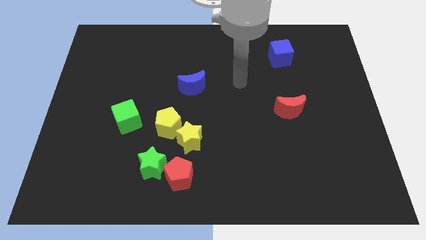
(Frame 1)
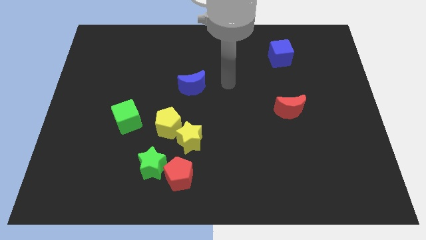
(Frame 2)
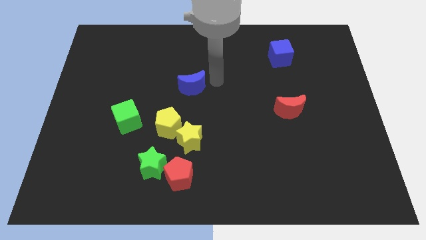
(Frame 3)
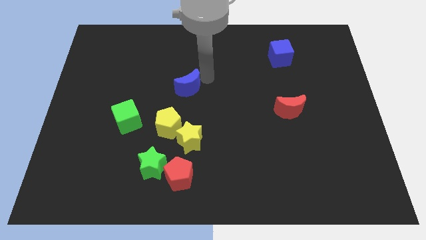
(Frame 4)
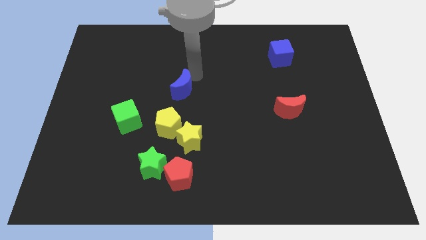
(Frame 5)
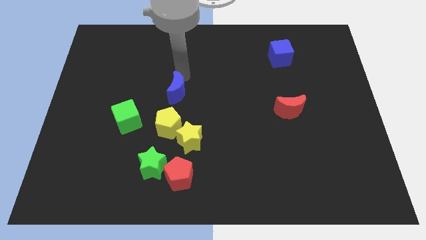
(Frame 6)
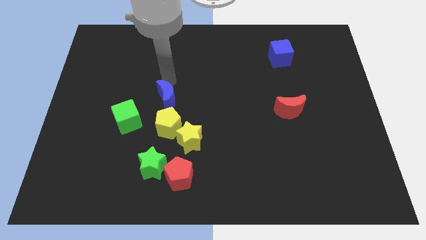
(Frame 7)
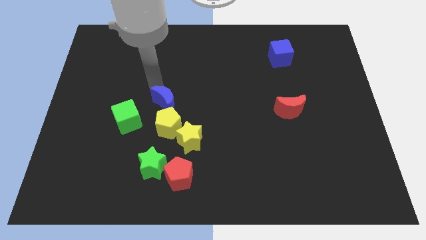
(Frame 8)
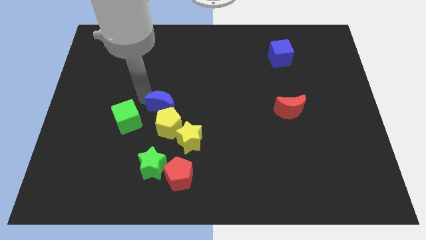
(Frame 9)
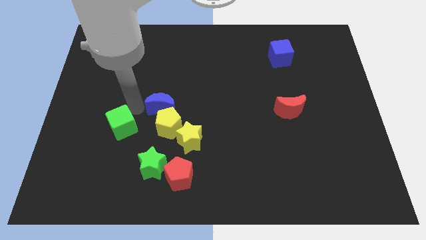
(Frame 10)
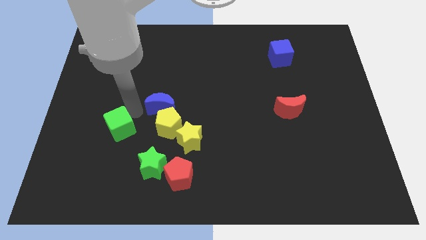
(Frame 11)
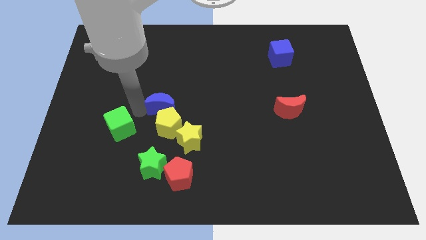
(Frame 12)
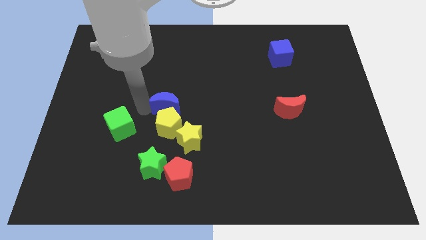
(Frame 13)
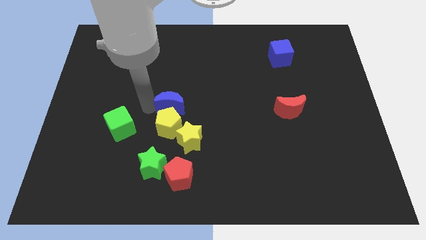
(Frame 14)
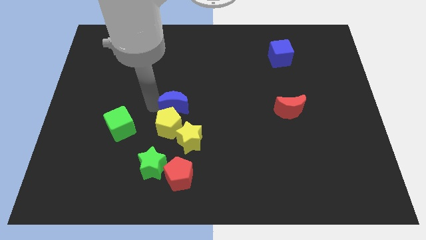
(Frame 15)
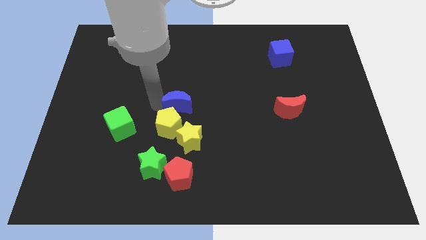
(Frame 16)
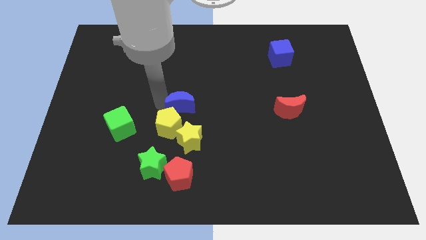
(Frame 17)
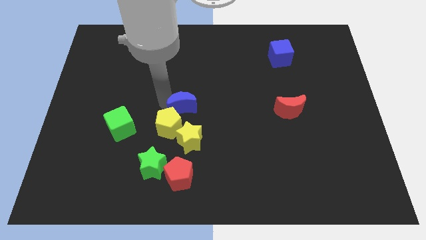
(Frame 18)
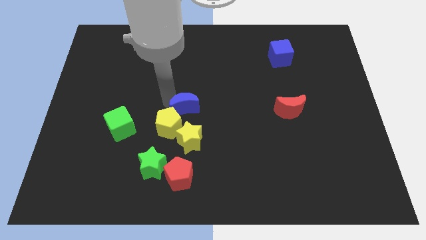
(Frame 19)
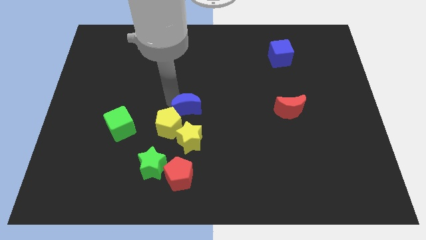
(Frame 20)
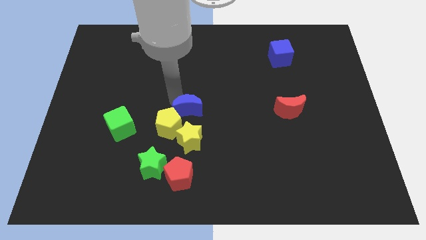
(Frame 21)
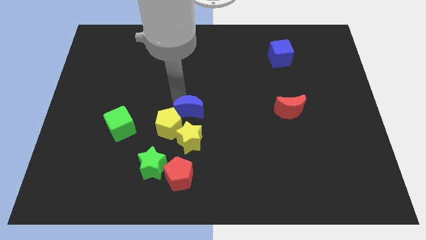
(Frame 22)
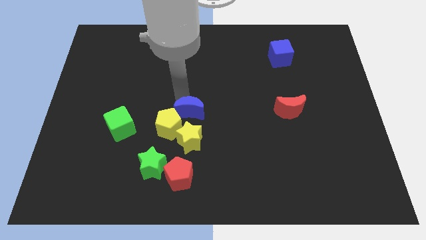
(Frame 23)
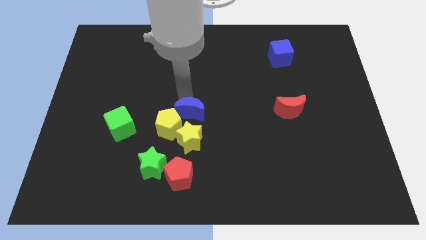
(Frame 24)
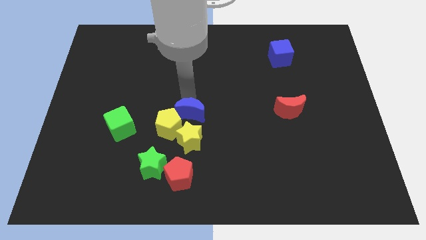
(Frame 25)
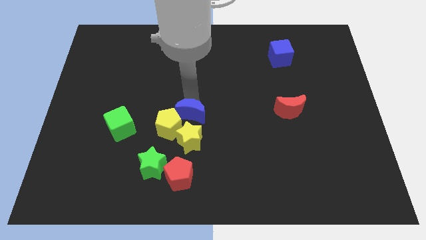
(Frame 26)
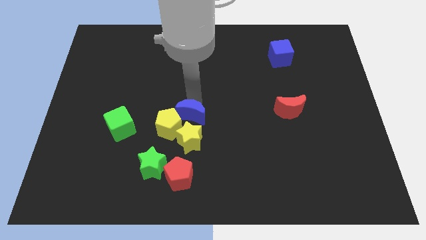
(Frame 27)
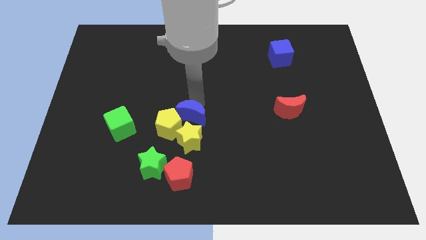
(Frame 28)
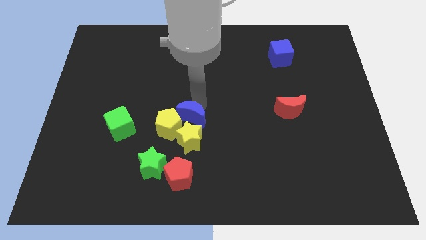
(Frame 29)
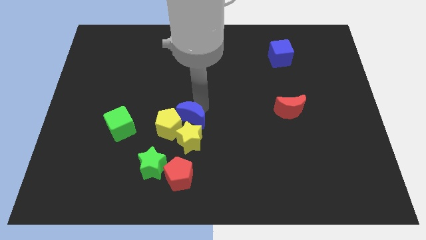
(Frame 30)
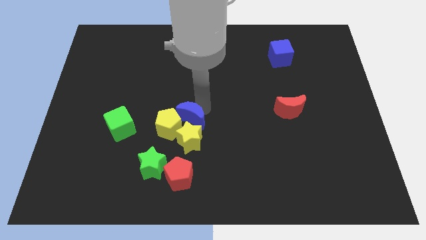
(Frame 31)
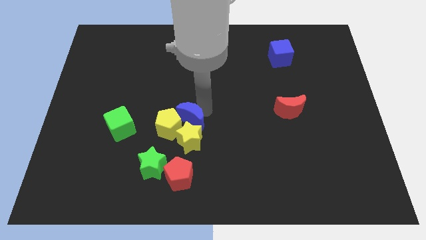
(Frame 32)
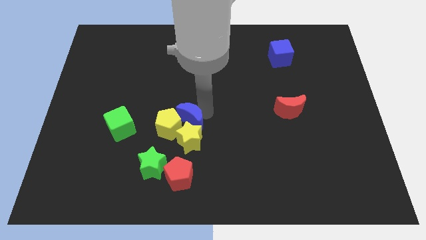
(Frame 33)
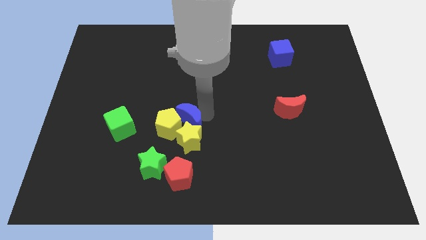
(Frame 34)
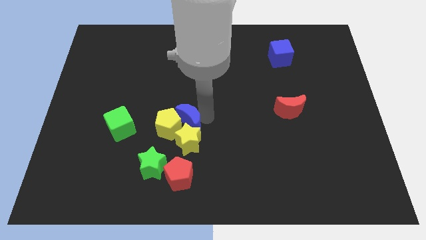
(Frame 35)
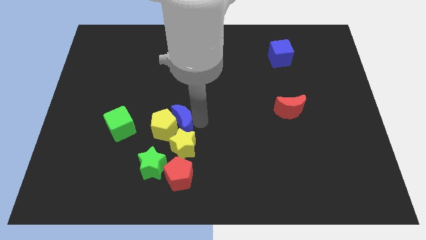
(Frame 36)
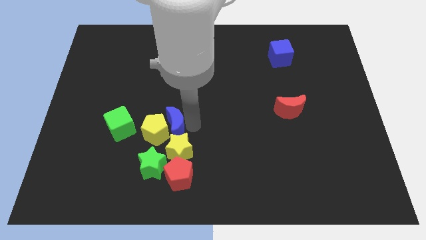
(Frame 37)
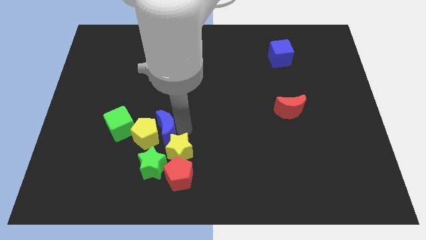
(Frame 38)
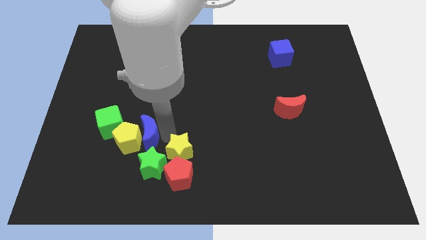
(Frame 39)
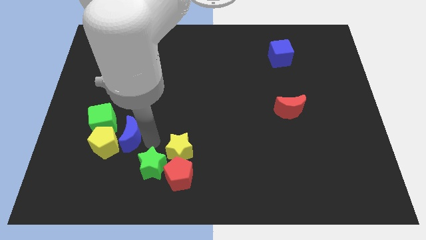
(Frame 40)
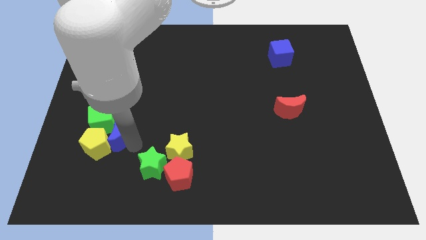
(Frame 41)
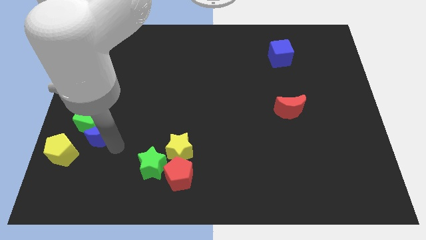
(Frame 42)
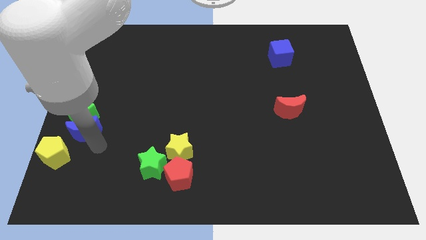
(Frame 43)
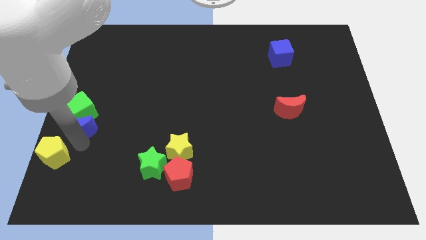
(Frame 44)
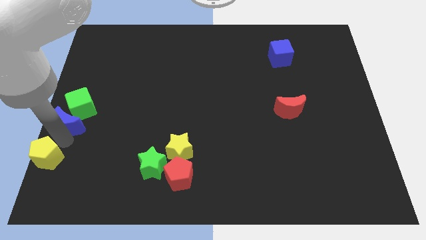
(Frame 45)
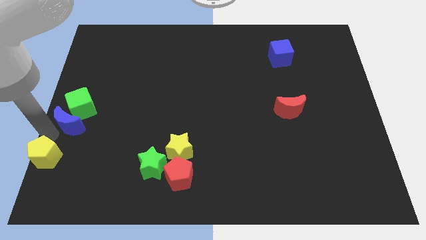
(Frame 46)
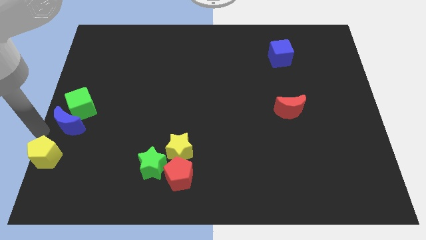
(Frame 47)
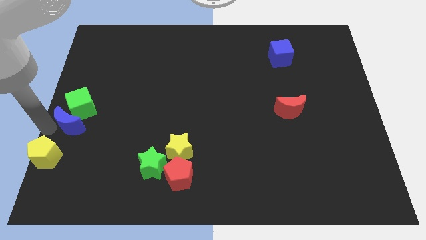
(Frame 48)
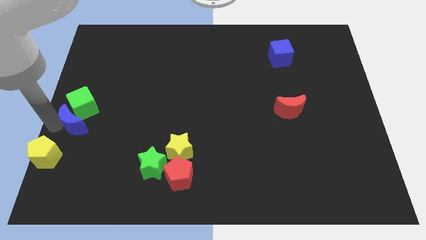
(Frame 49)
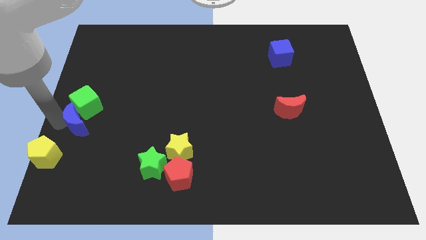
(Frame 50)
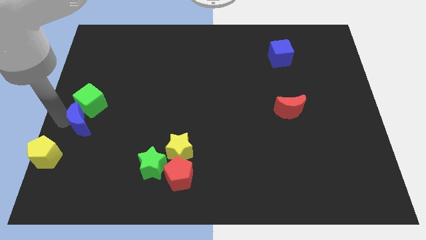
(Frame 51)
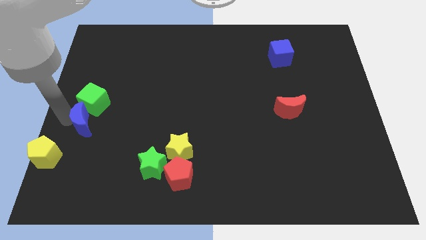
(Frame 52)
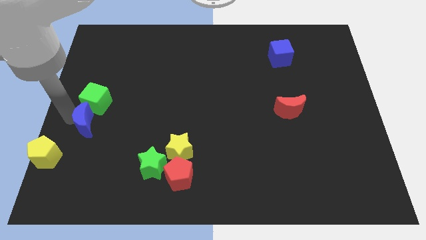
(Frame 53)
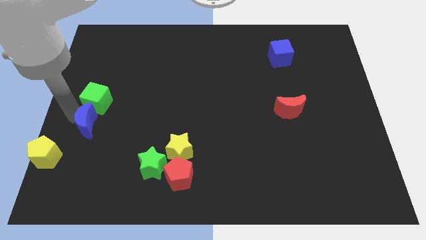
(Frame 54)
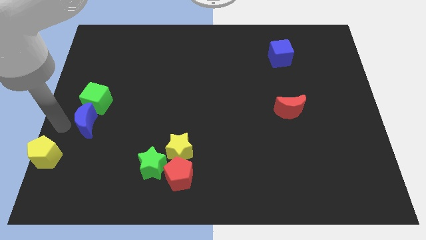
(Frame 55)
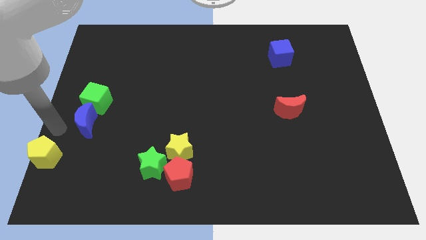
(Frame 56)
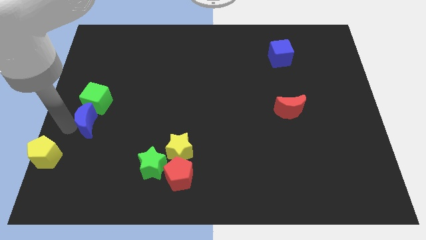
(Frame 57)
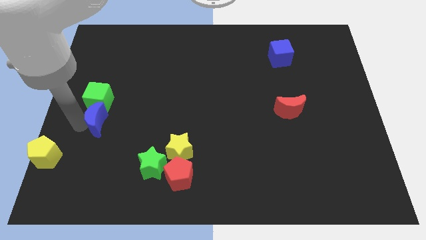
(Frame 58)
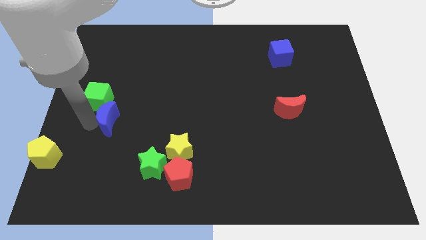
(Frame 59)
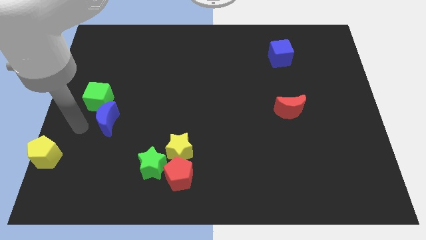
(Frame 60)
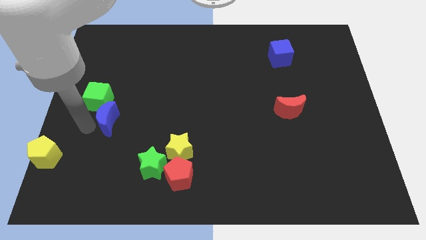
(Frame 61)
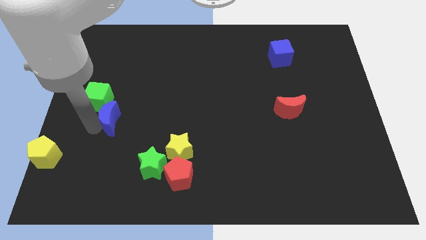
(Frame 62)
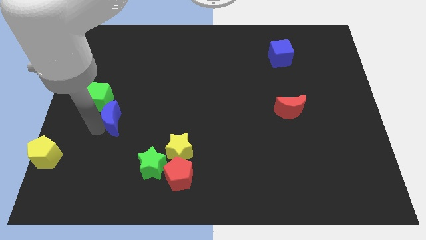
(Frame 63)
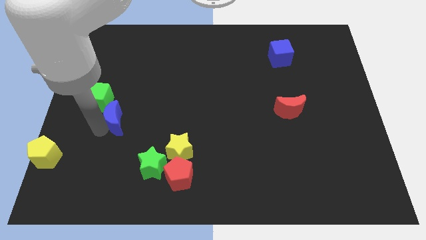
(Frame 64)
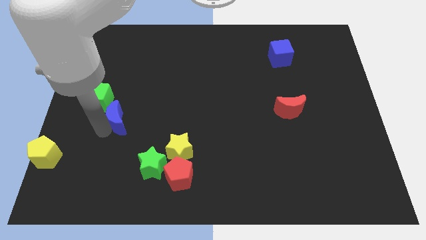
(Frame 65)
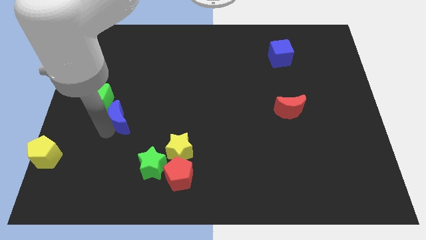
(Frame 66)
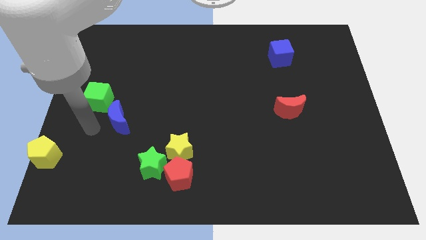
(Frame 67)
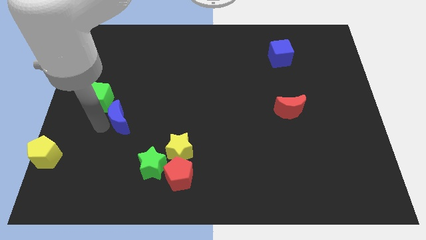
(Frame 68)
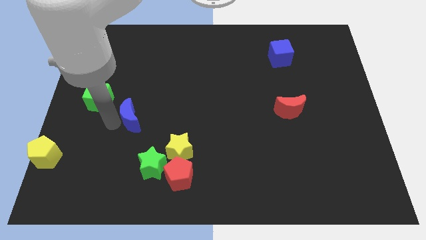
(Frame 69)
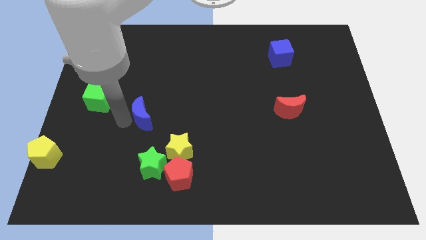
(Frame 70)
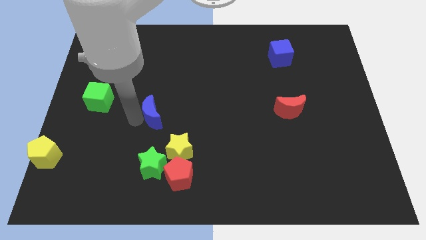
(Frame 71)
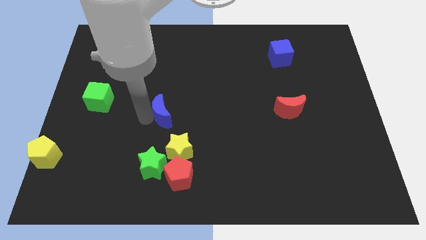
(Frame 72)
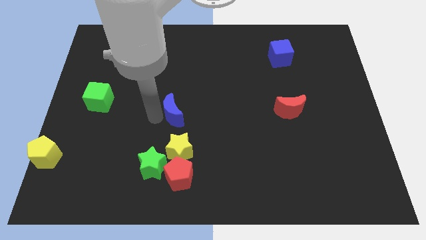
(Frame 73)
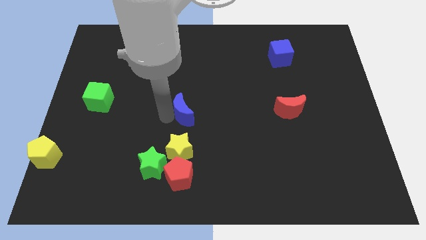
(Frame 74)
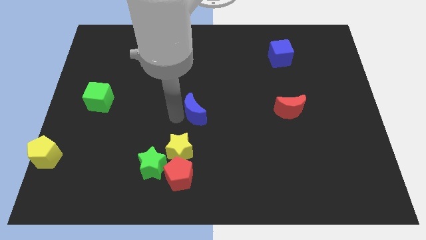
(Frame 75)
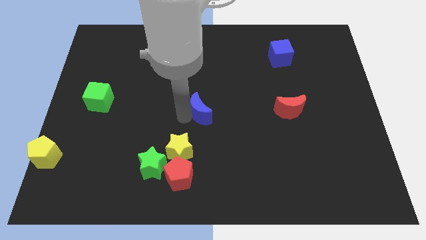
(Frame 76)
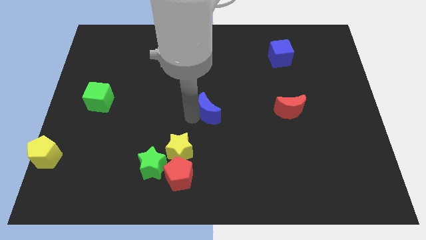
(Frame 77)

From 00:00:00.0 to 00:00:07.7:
slightly slide the blue moon down and to the right diagonally
